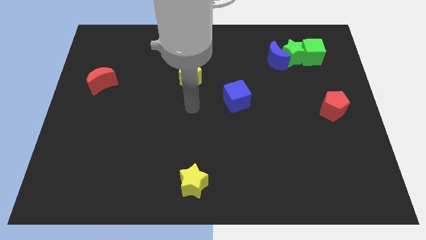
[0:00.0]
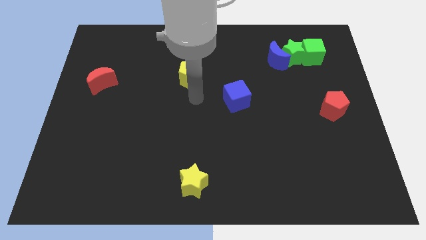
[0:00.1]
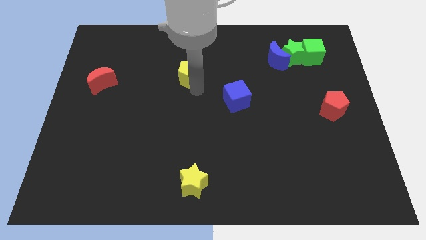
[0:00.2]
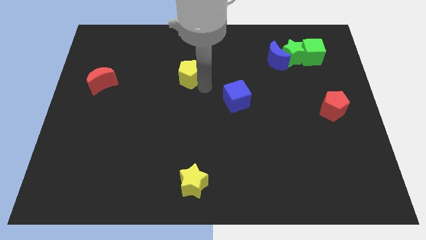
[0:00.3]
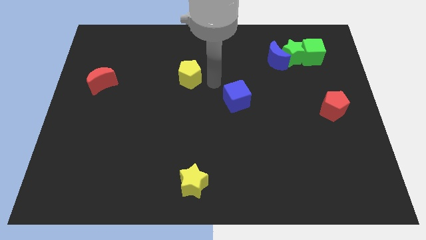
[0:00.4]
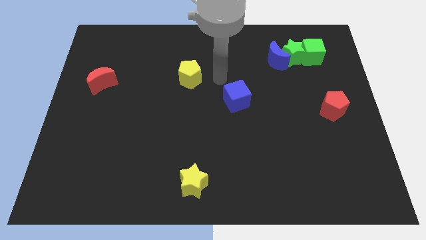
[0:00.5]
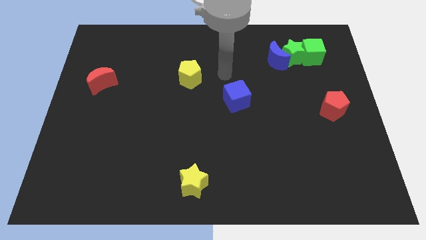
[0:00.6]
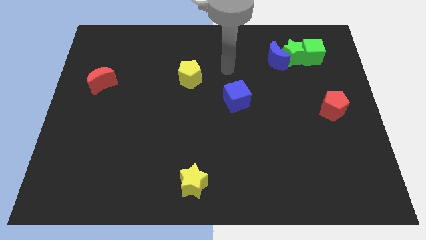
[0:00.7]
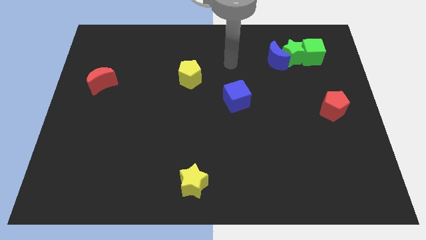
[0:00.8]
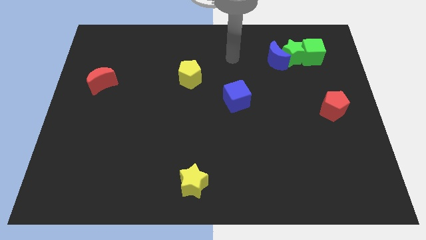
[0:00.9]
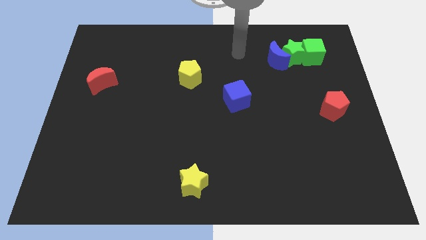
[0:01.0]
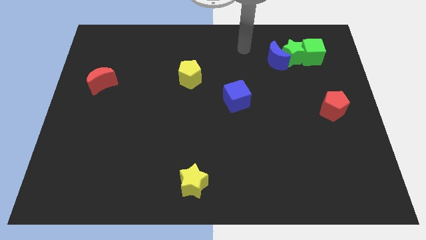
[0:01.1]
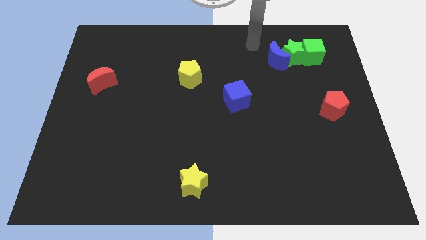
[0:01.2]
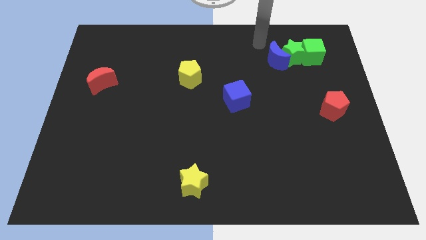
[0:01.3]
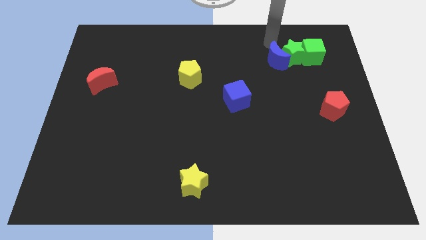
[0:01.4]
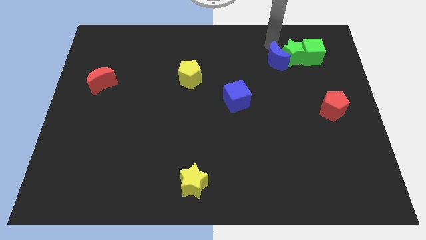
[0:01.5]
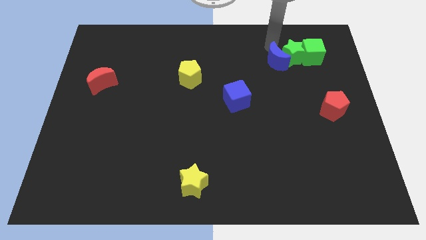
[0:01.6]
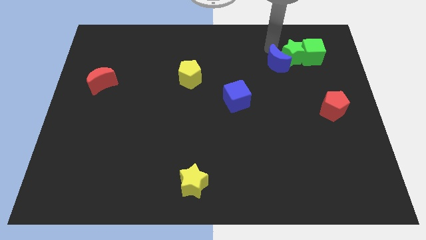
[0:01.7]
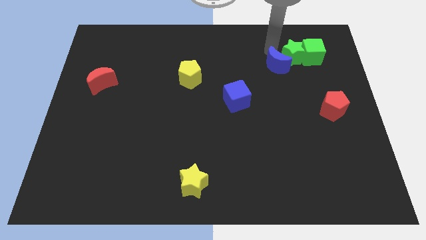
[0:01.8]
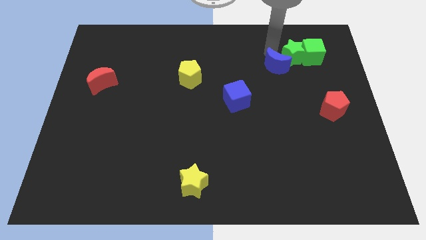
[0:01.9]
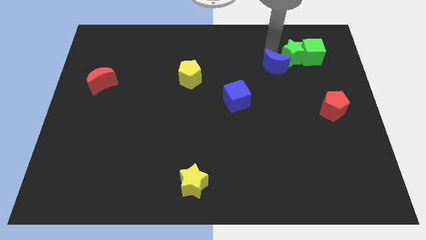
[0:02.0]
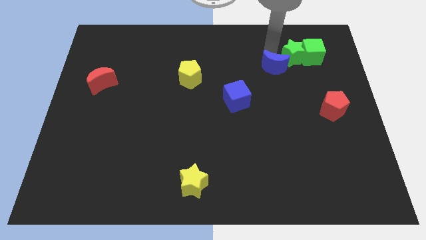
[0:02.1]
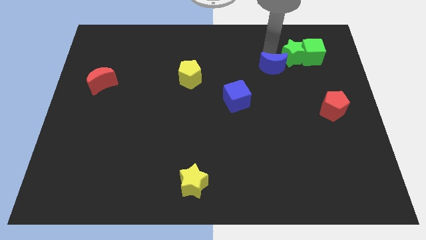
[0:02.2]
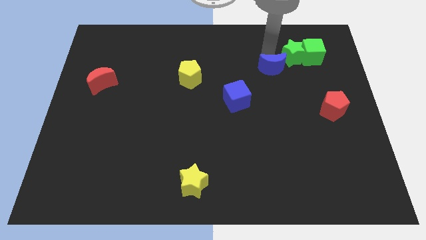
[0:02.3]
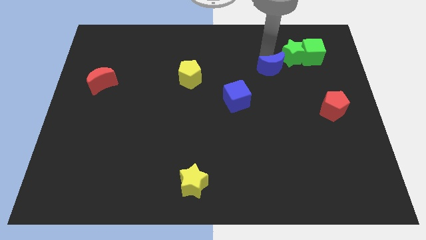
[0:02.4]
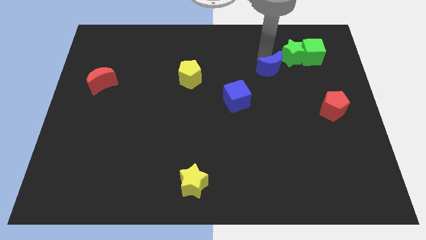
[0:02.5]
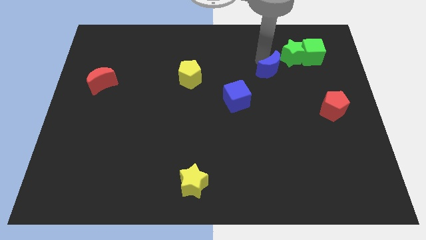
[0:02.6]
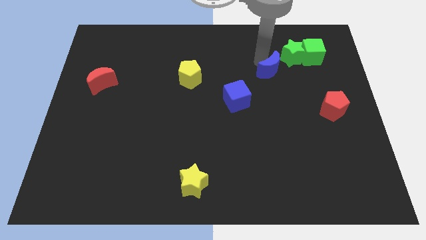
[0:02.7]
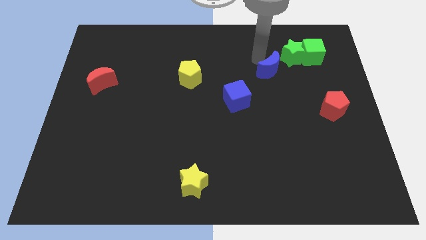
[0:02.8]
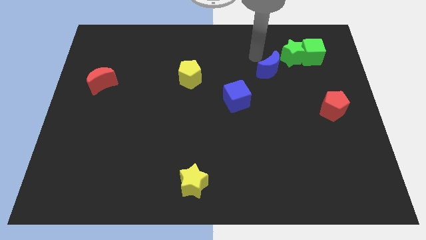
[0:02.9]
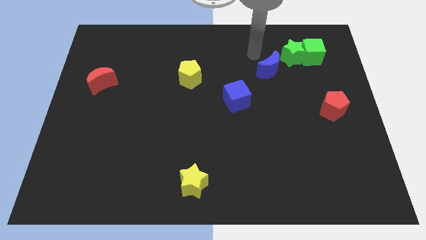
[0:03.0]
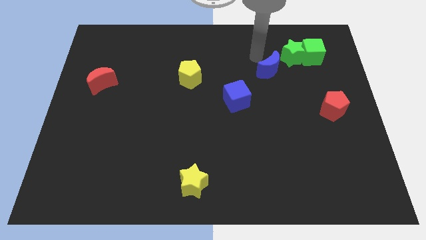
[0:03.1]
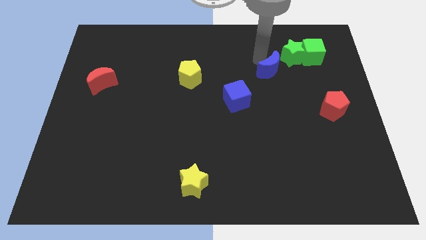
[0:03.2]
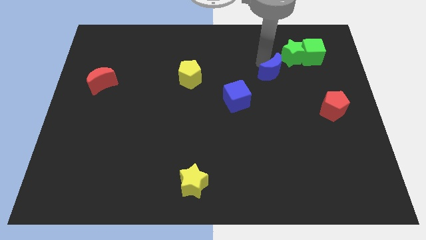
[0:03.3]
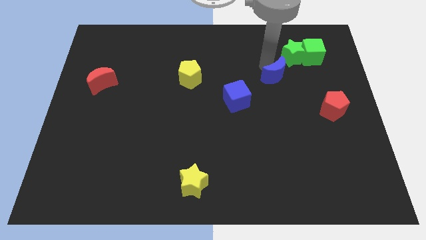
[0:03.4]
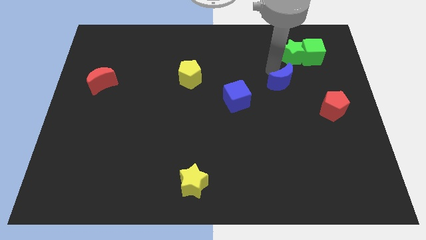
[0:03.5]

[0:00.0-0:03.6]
push the blue moon a little down

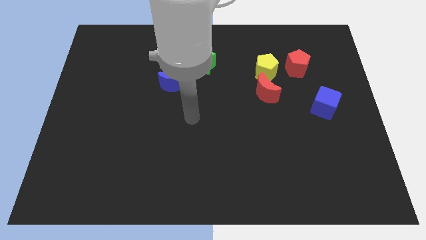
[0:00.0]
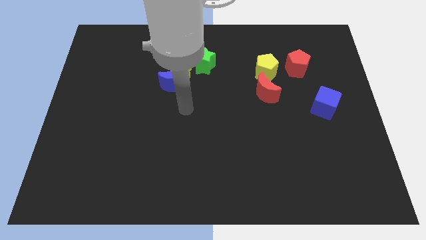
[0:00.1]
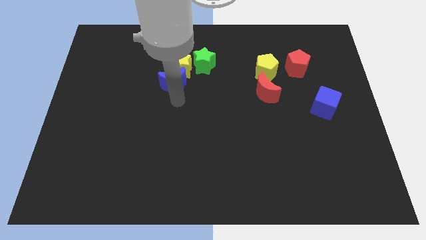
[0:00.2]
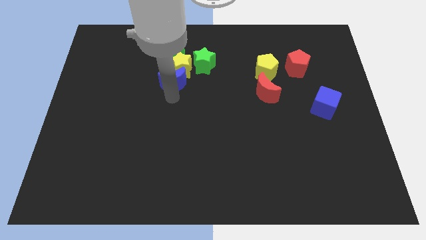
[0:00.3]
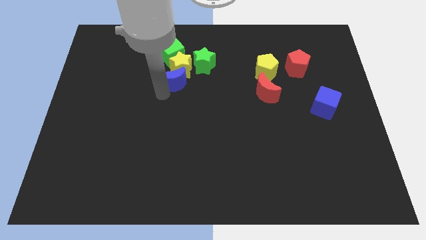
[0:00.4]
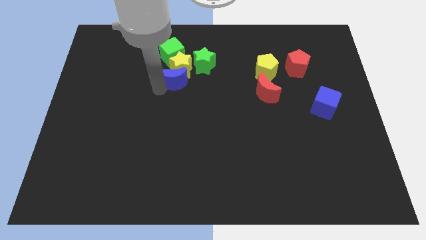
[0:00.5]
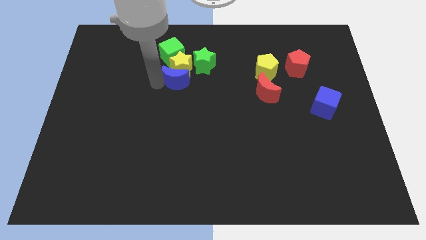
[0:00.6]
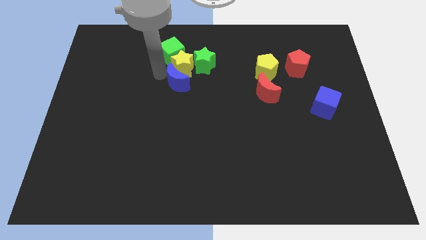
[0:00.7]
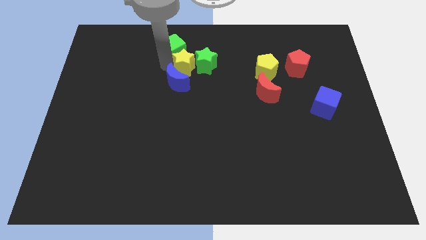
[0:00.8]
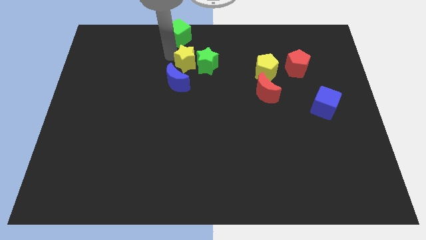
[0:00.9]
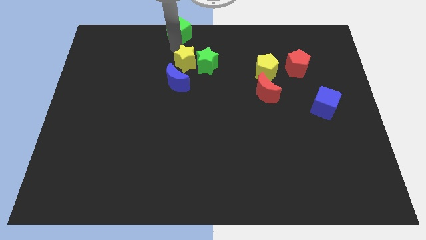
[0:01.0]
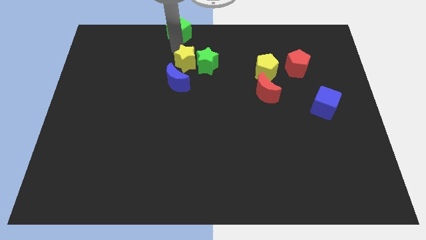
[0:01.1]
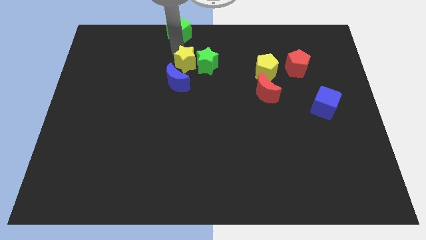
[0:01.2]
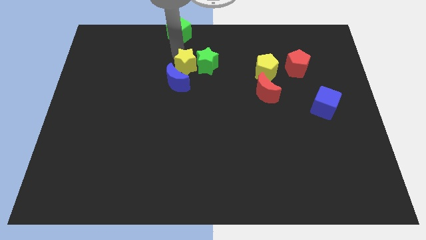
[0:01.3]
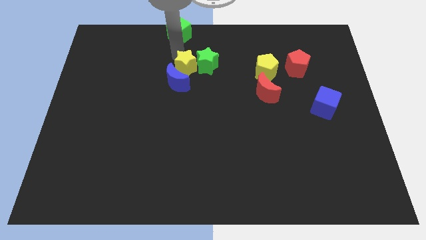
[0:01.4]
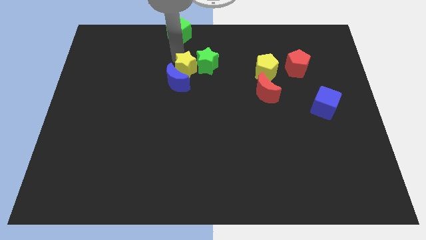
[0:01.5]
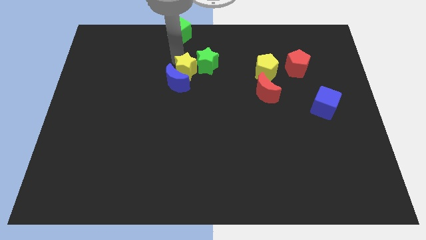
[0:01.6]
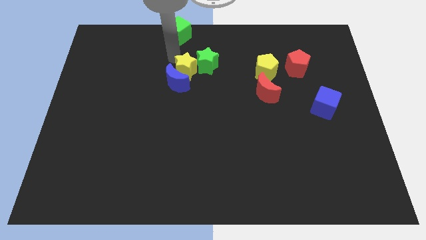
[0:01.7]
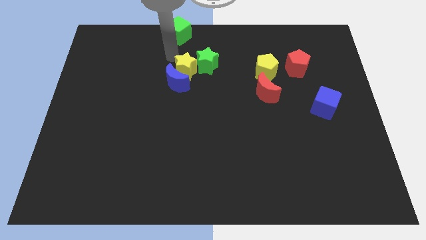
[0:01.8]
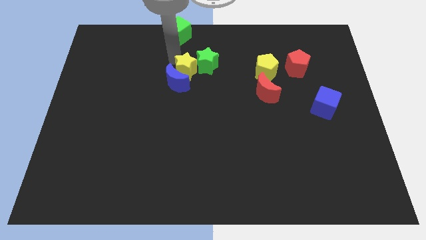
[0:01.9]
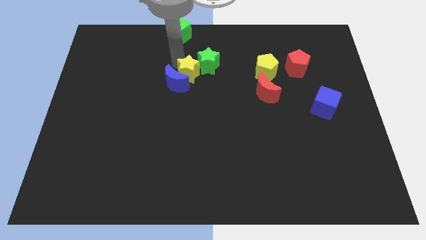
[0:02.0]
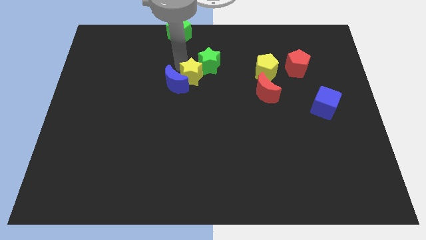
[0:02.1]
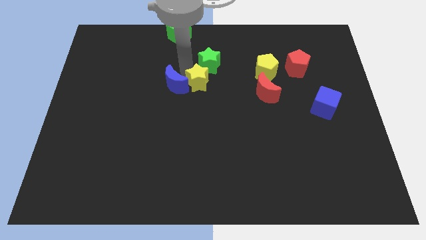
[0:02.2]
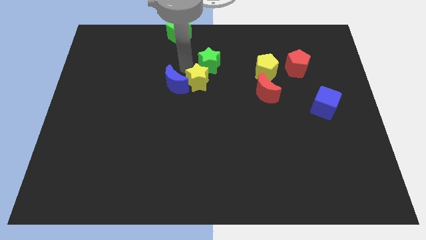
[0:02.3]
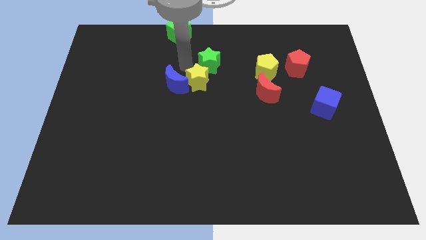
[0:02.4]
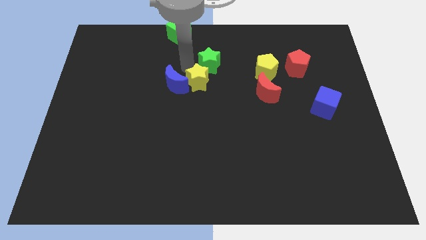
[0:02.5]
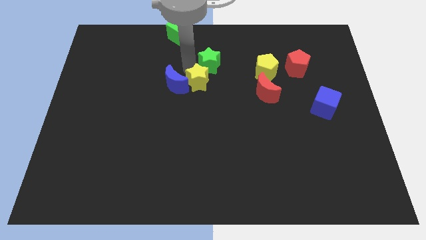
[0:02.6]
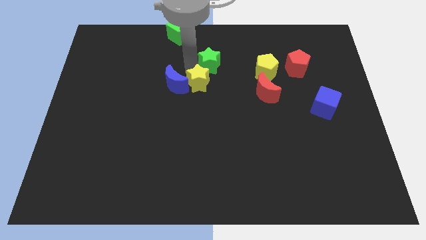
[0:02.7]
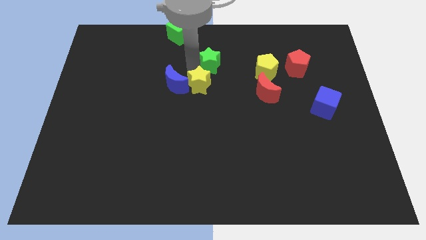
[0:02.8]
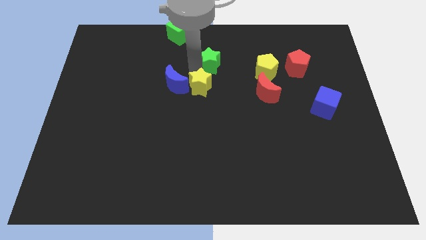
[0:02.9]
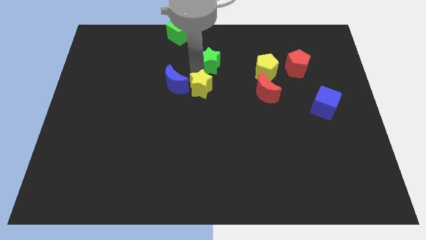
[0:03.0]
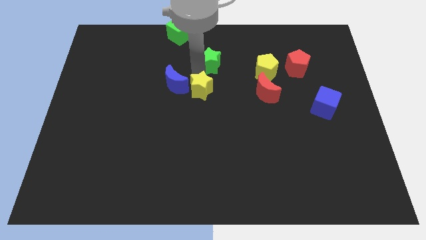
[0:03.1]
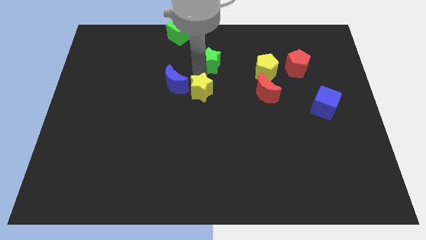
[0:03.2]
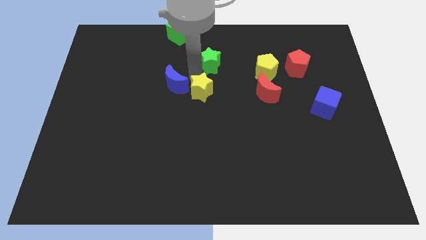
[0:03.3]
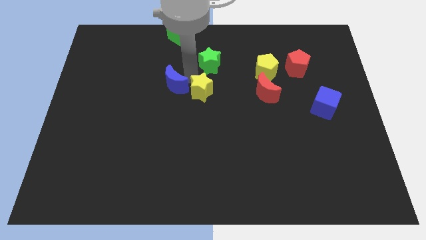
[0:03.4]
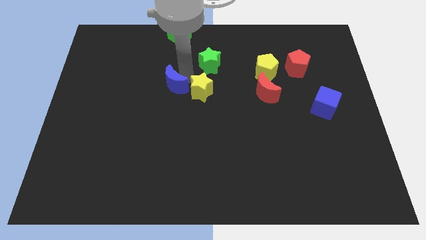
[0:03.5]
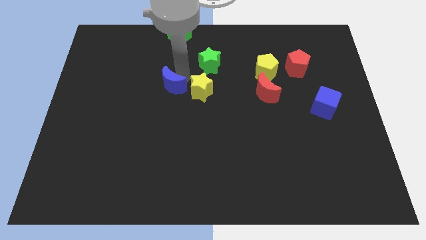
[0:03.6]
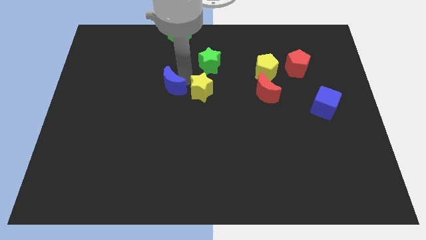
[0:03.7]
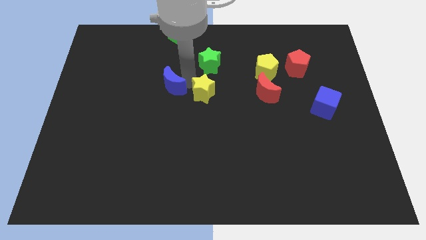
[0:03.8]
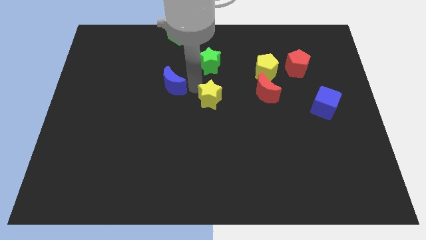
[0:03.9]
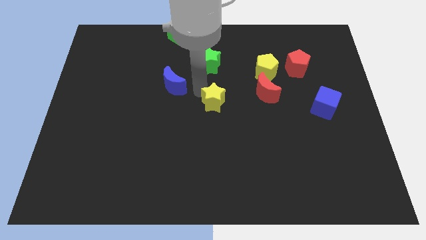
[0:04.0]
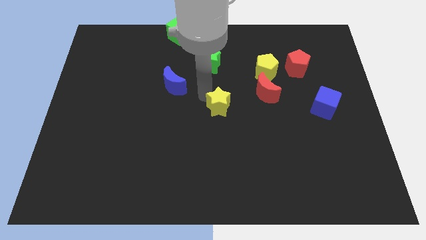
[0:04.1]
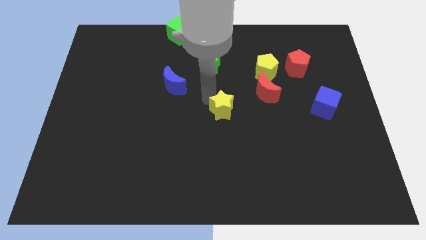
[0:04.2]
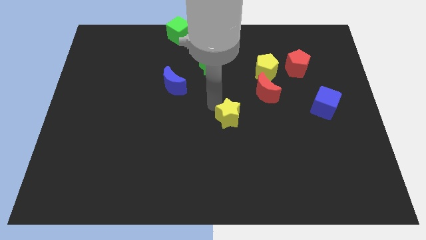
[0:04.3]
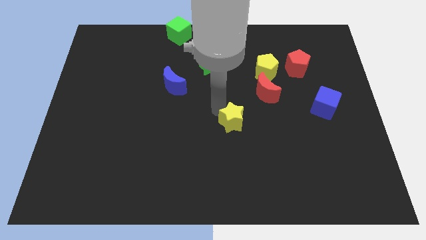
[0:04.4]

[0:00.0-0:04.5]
move the yellow star diagonally downwards and right
